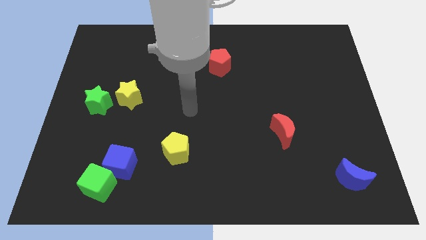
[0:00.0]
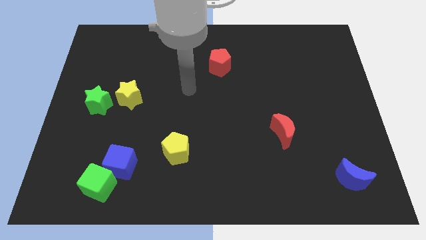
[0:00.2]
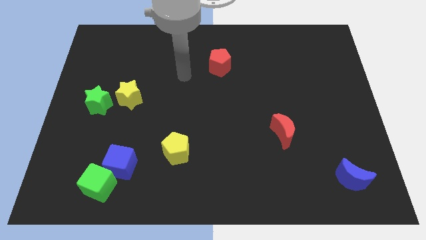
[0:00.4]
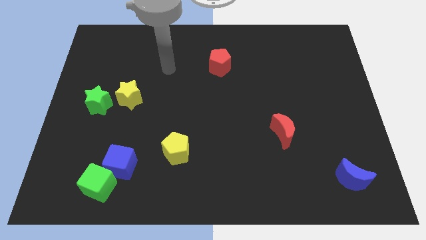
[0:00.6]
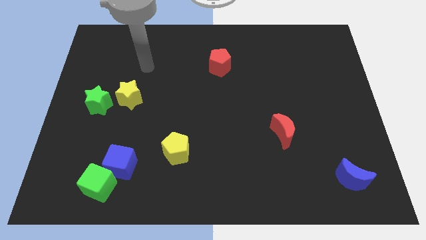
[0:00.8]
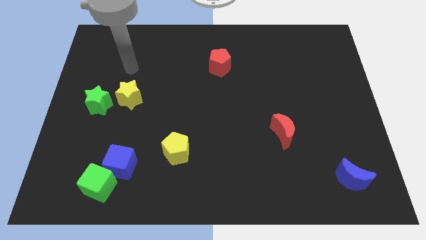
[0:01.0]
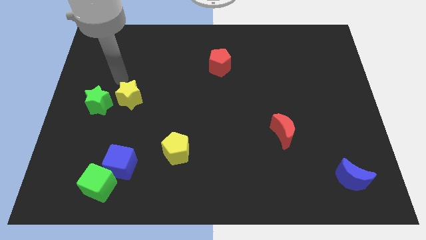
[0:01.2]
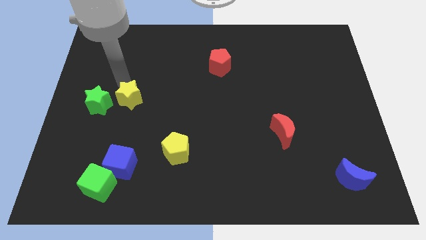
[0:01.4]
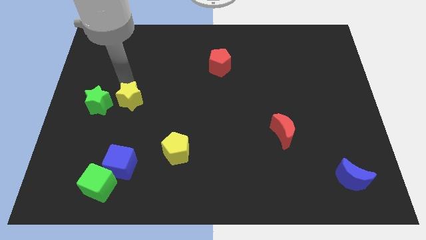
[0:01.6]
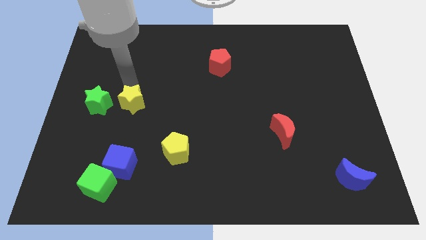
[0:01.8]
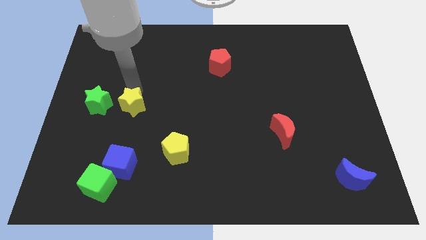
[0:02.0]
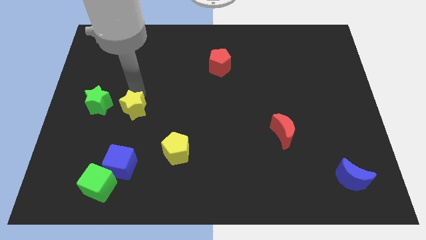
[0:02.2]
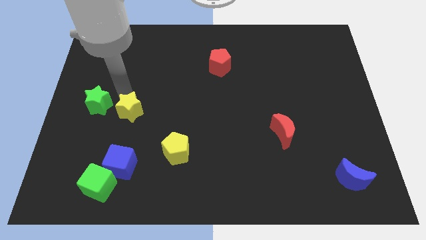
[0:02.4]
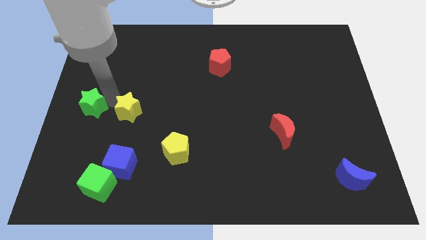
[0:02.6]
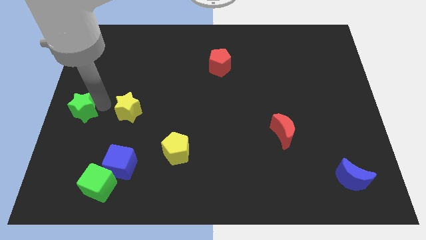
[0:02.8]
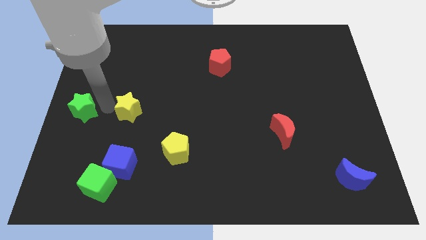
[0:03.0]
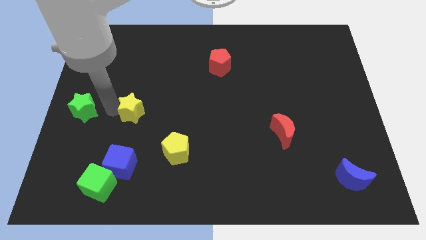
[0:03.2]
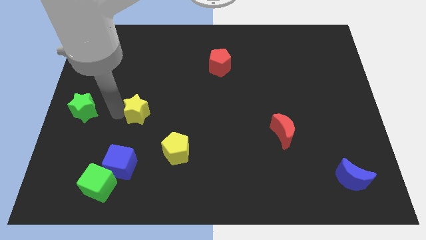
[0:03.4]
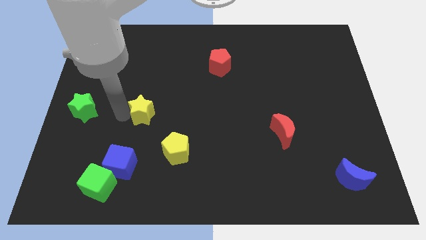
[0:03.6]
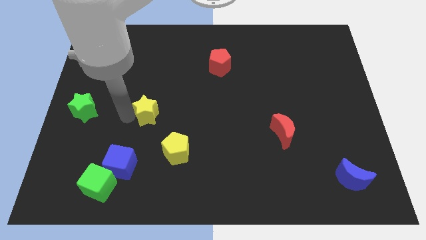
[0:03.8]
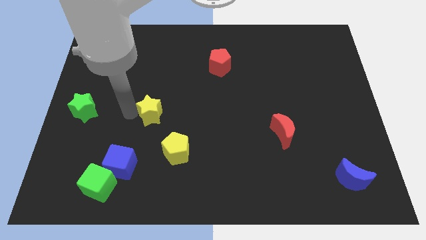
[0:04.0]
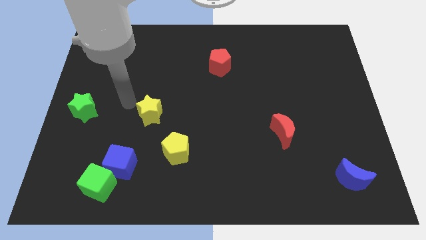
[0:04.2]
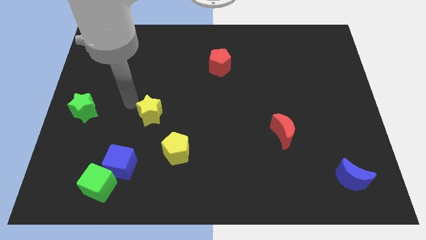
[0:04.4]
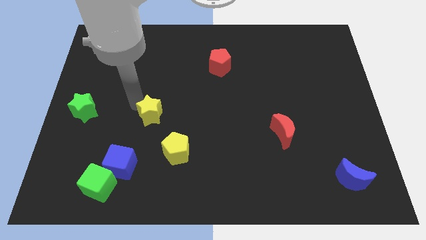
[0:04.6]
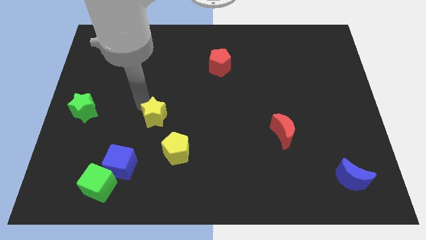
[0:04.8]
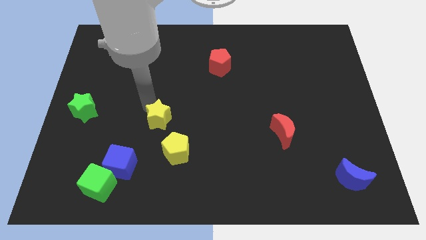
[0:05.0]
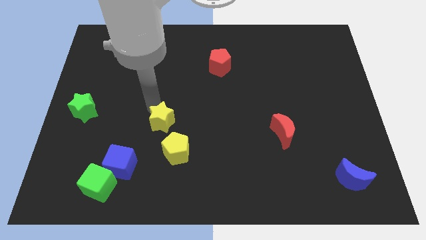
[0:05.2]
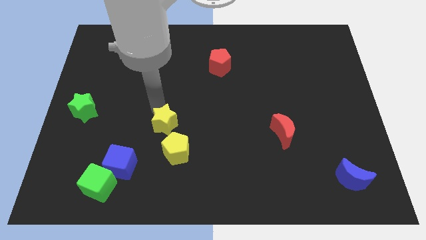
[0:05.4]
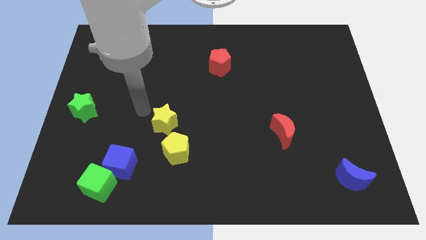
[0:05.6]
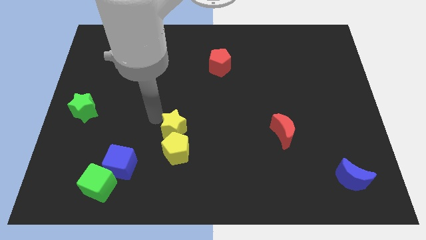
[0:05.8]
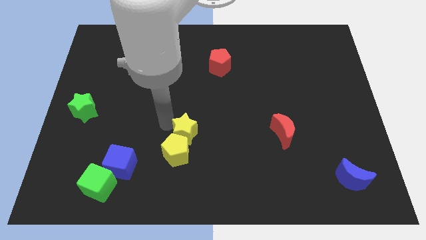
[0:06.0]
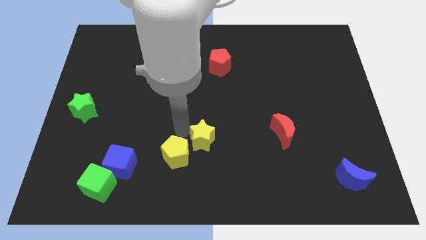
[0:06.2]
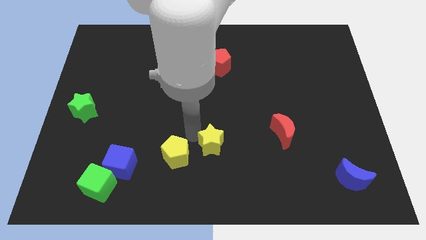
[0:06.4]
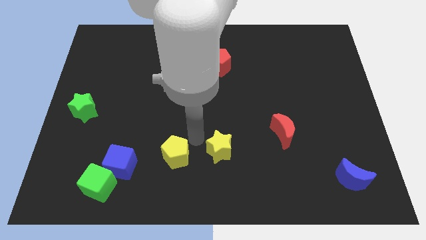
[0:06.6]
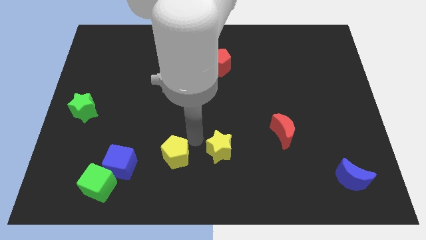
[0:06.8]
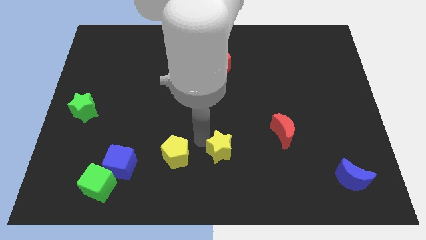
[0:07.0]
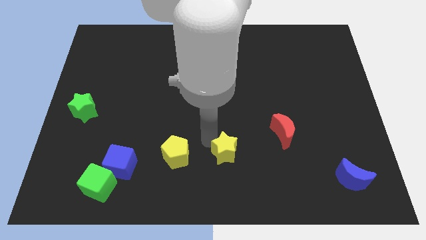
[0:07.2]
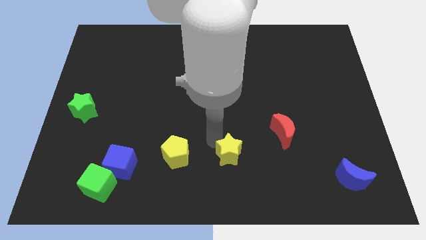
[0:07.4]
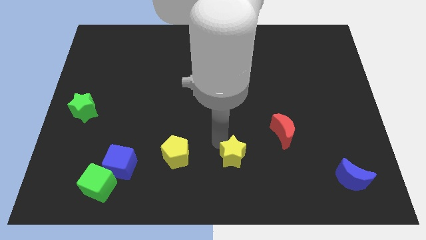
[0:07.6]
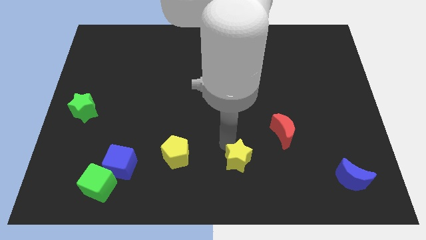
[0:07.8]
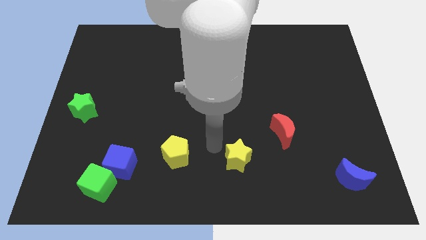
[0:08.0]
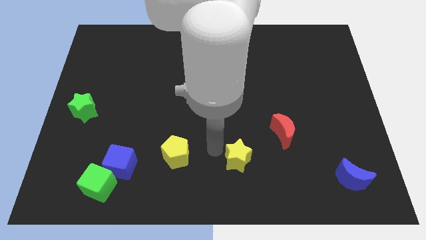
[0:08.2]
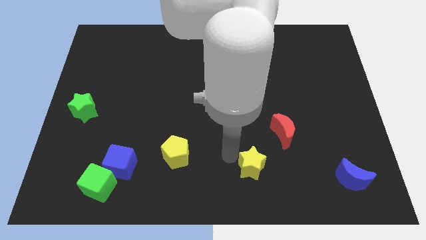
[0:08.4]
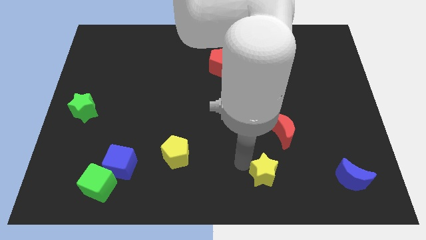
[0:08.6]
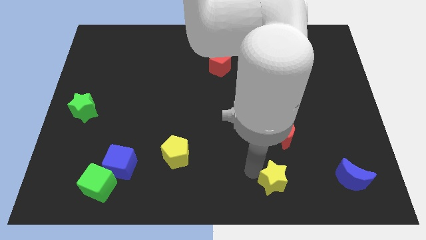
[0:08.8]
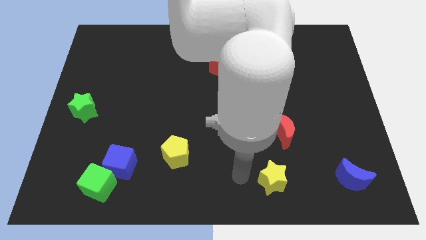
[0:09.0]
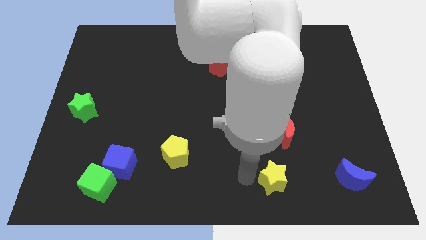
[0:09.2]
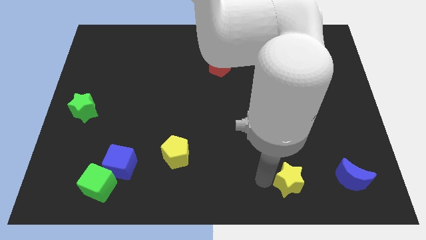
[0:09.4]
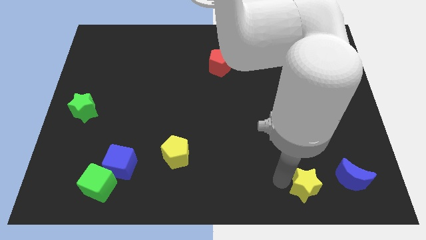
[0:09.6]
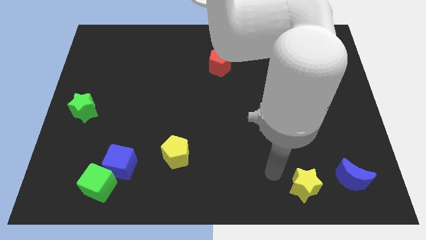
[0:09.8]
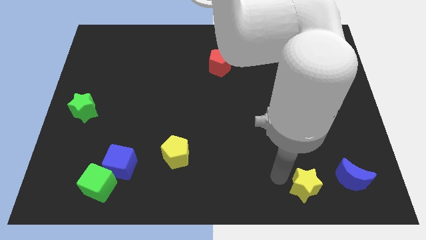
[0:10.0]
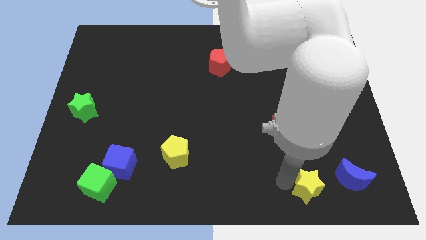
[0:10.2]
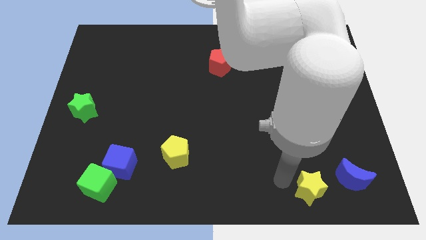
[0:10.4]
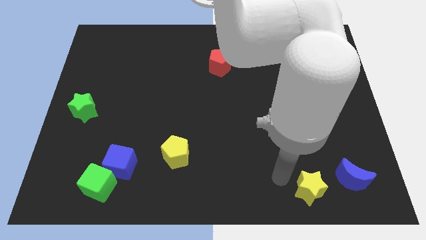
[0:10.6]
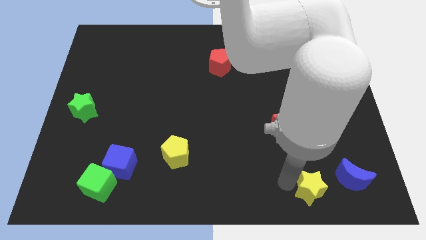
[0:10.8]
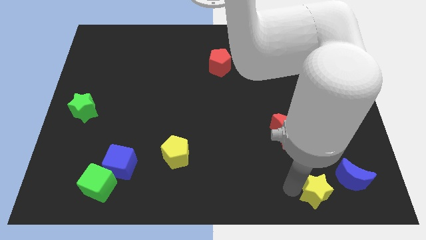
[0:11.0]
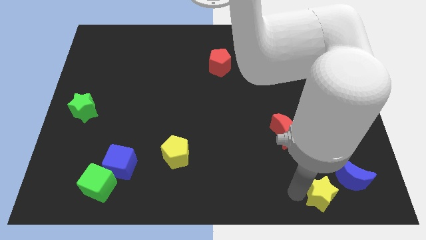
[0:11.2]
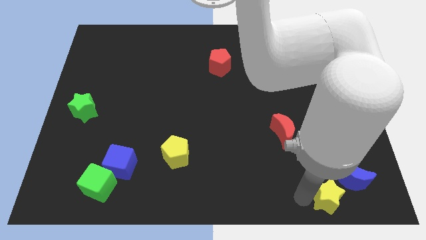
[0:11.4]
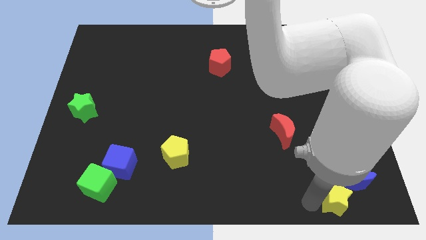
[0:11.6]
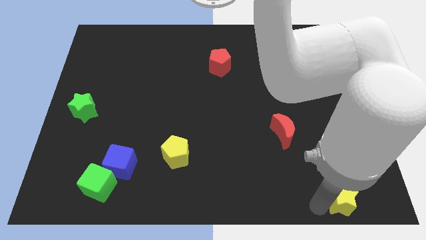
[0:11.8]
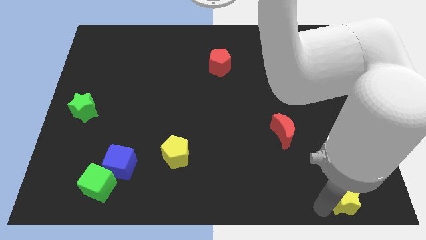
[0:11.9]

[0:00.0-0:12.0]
move the yellow star to the bottom right of the board

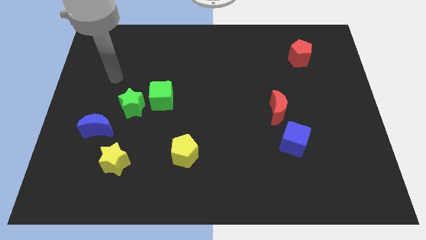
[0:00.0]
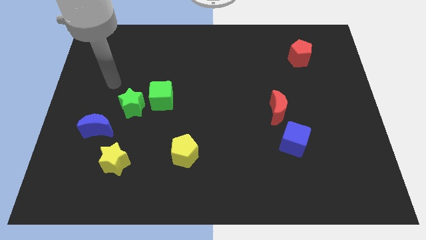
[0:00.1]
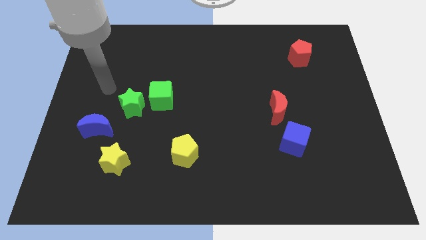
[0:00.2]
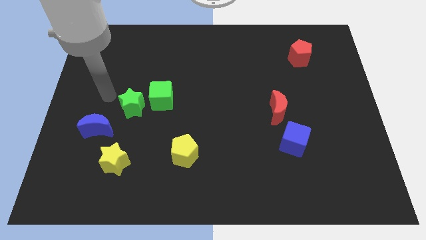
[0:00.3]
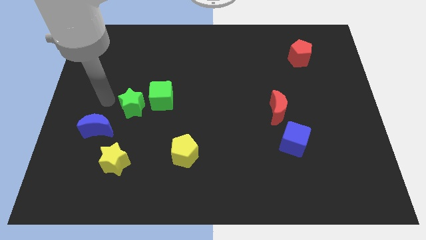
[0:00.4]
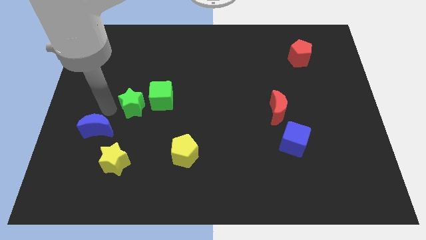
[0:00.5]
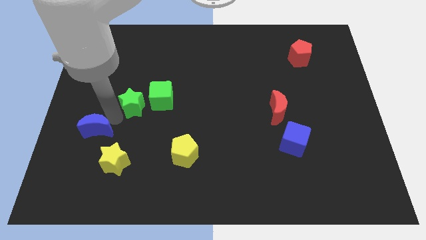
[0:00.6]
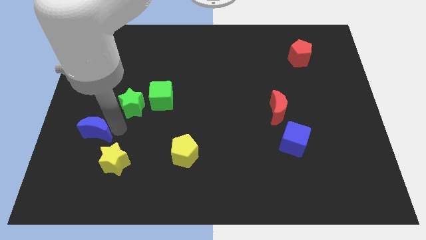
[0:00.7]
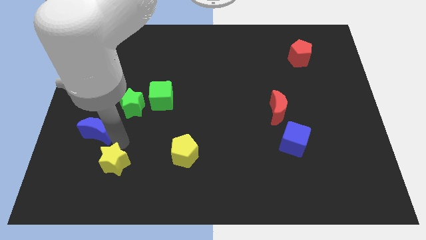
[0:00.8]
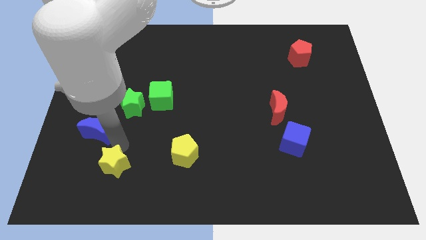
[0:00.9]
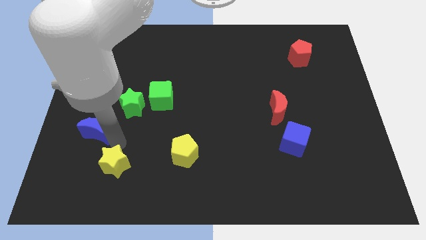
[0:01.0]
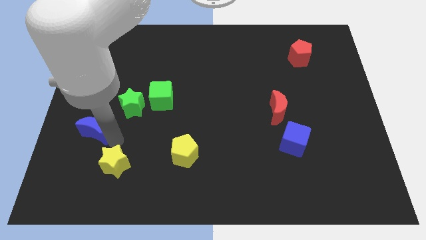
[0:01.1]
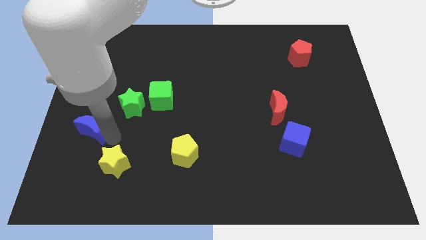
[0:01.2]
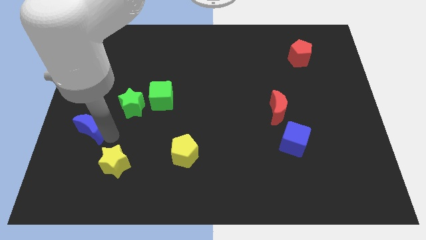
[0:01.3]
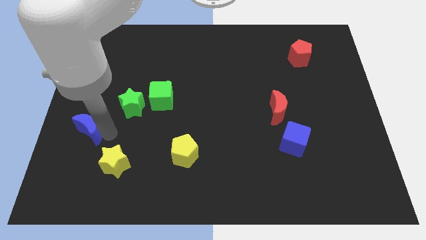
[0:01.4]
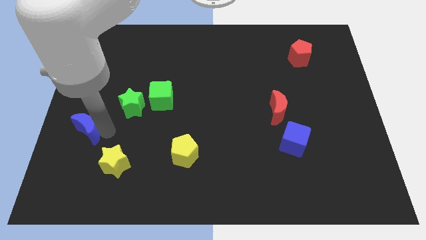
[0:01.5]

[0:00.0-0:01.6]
push the blue moon to the left side
